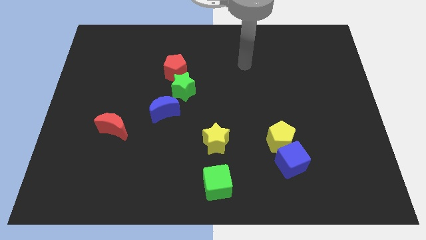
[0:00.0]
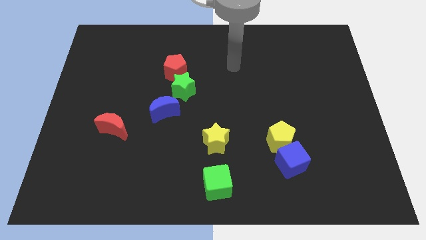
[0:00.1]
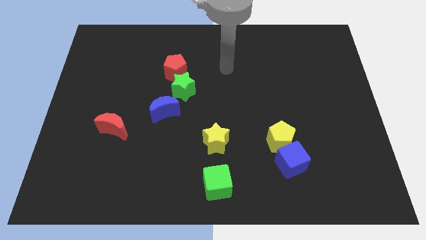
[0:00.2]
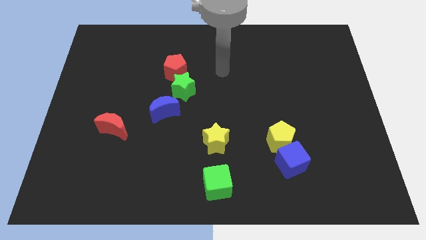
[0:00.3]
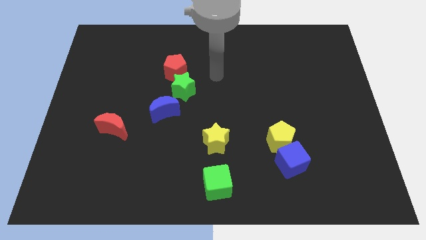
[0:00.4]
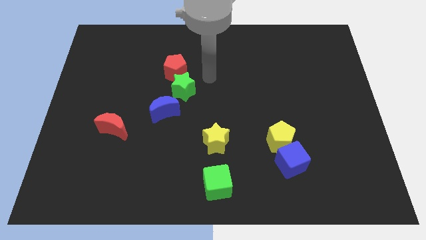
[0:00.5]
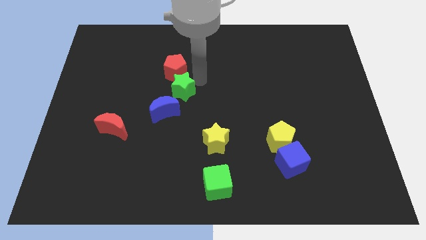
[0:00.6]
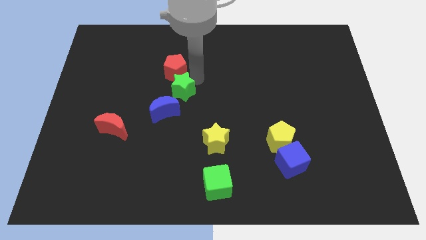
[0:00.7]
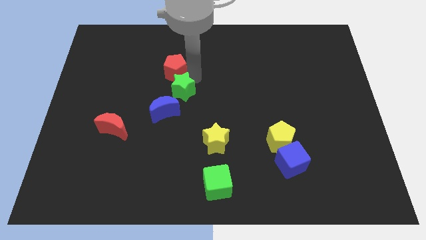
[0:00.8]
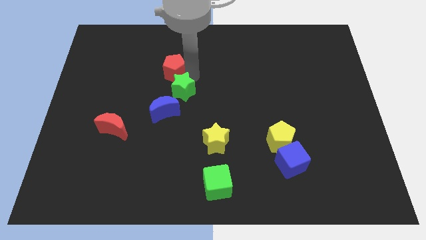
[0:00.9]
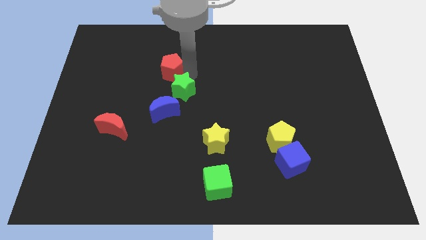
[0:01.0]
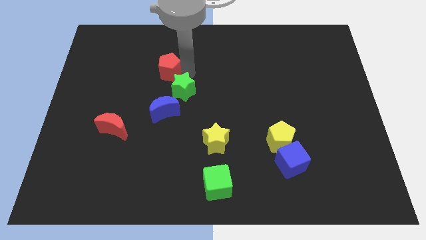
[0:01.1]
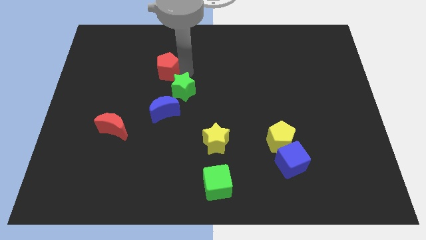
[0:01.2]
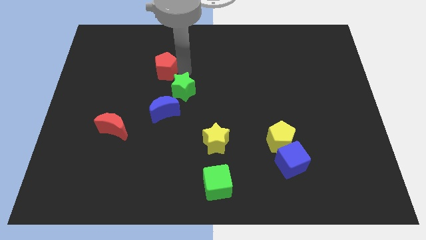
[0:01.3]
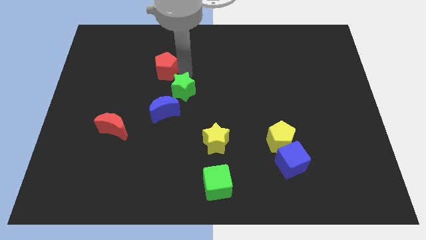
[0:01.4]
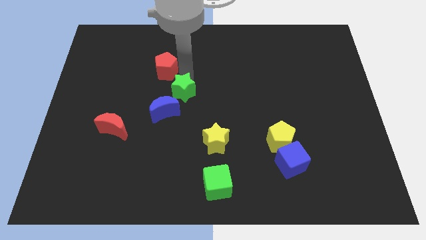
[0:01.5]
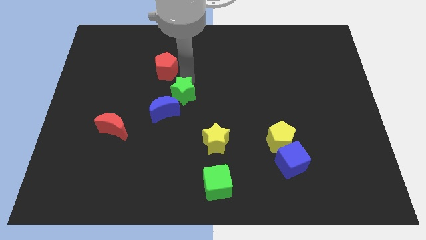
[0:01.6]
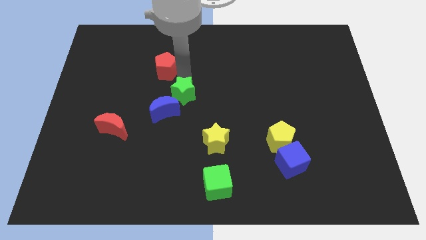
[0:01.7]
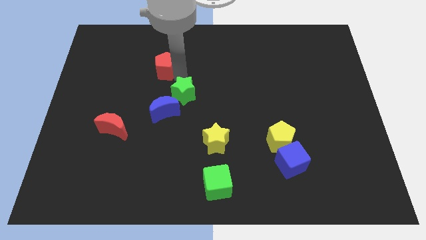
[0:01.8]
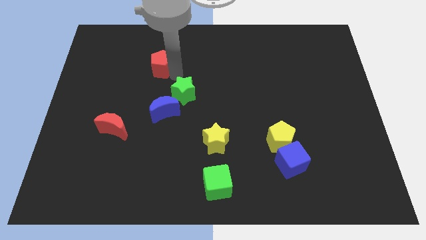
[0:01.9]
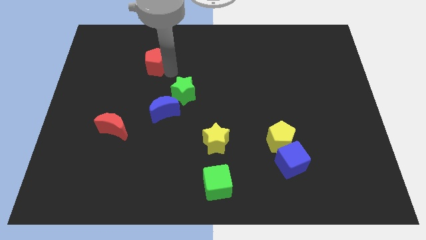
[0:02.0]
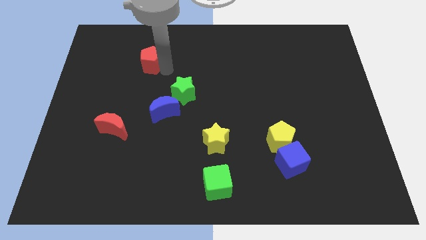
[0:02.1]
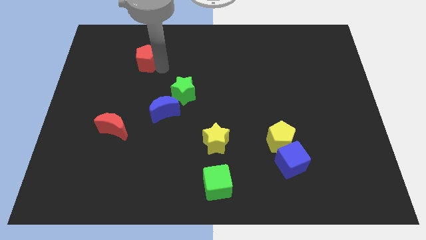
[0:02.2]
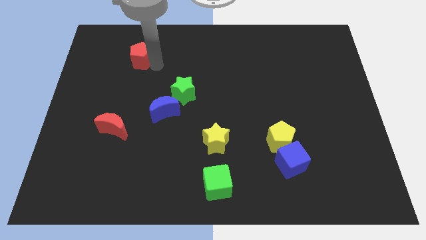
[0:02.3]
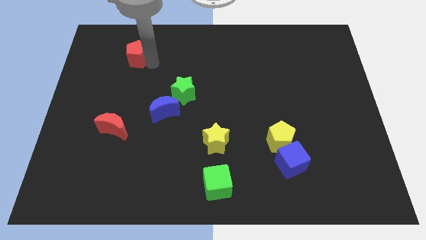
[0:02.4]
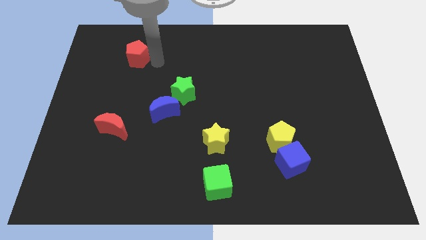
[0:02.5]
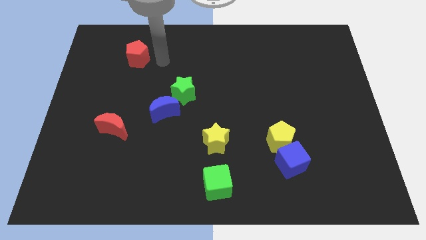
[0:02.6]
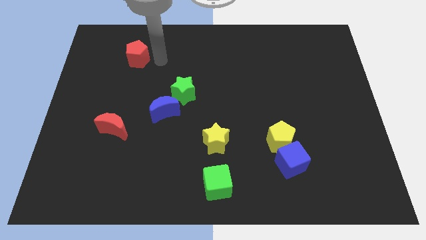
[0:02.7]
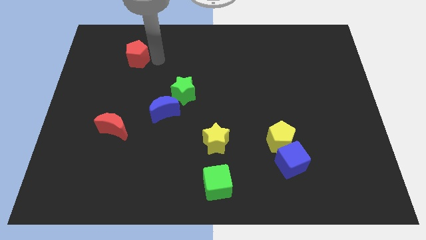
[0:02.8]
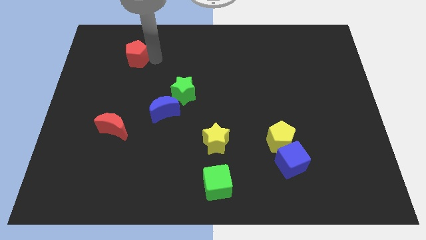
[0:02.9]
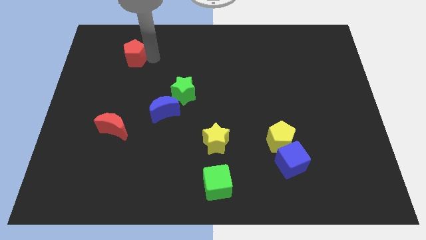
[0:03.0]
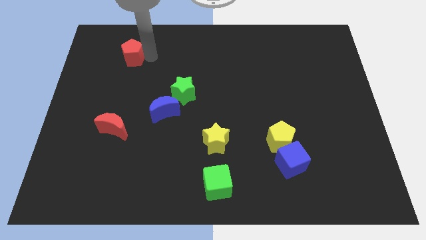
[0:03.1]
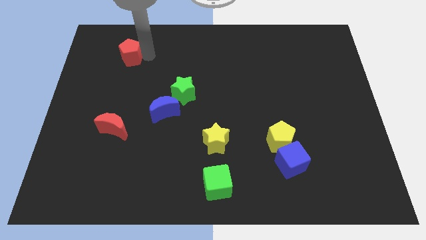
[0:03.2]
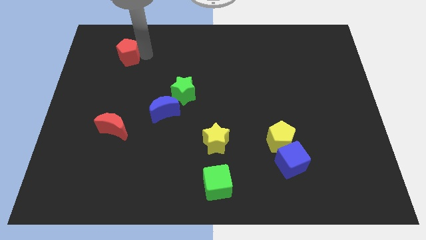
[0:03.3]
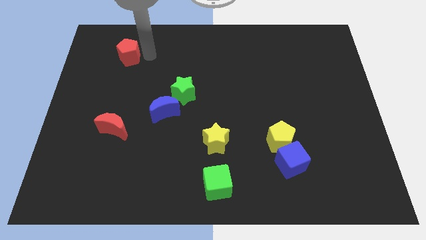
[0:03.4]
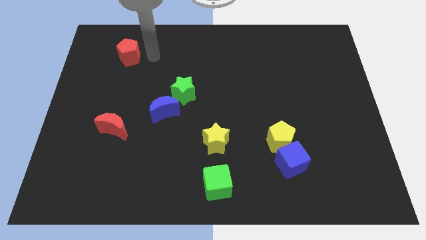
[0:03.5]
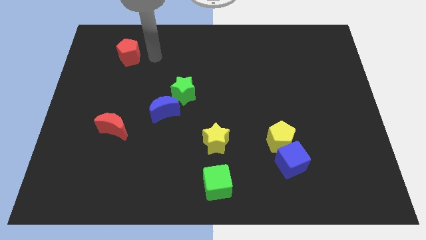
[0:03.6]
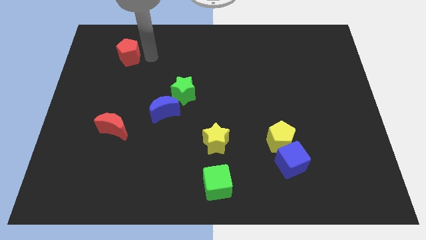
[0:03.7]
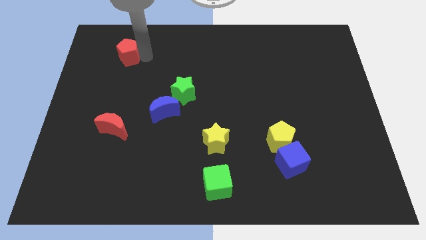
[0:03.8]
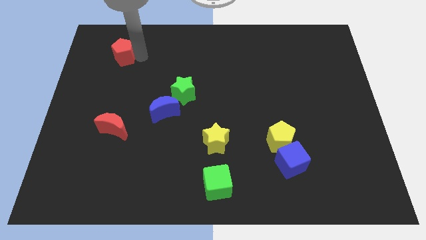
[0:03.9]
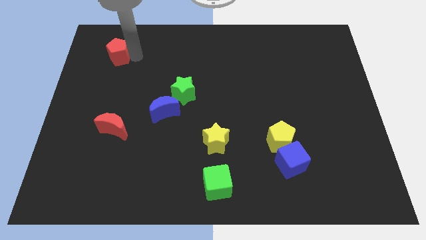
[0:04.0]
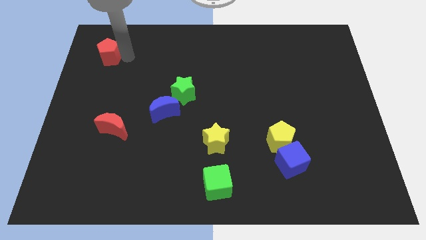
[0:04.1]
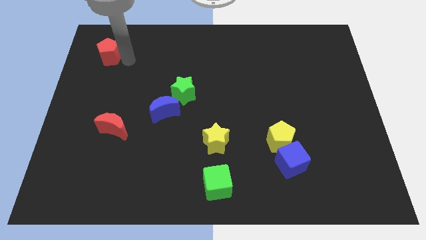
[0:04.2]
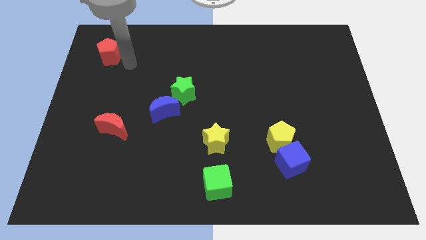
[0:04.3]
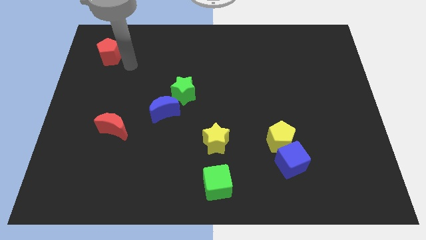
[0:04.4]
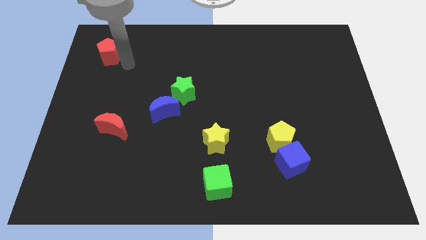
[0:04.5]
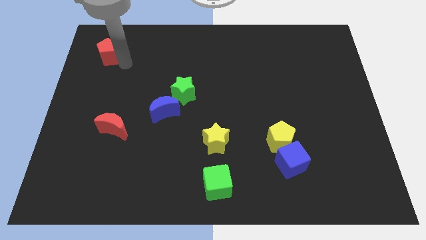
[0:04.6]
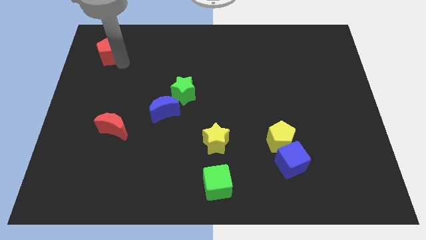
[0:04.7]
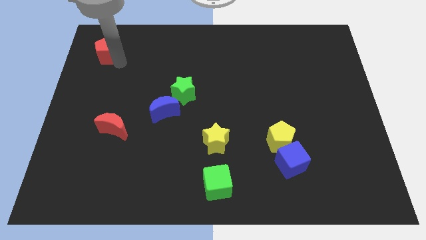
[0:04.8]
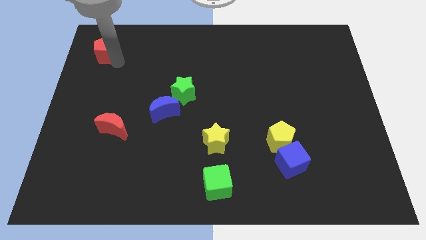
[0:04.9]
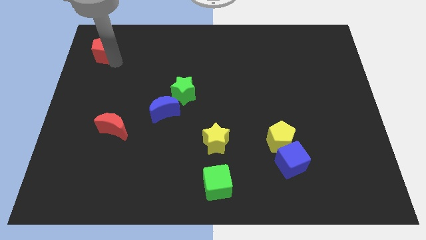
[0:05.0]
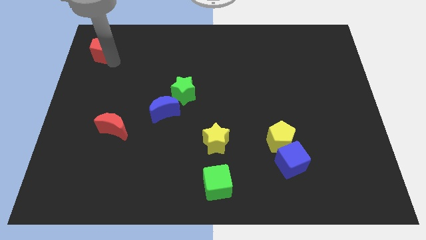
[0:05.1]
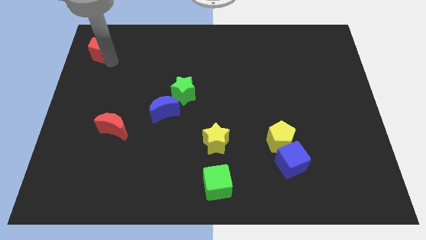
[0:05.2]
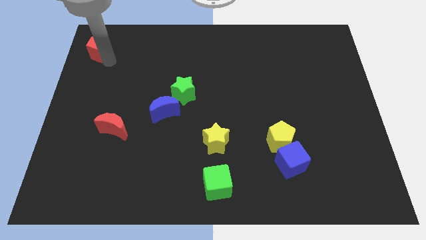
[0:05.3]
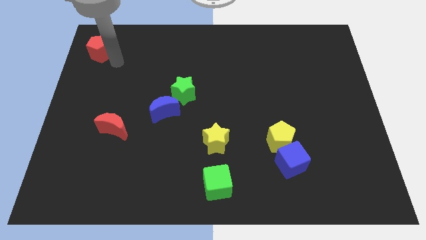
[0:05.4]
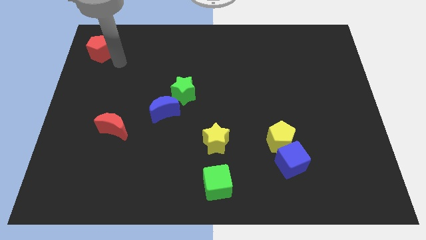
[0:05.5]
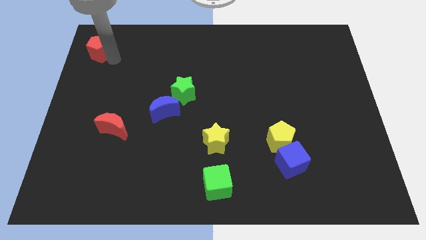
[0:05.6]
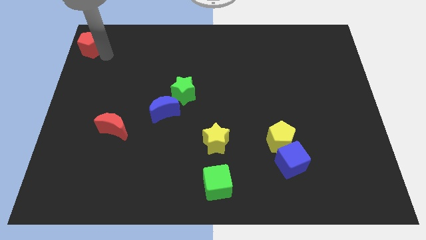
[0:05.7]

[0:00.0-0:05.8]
move the red pentagon to the top left corner

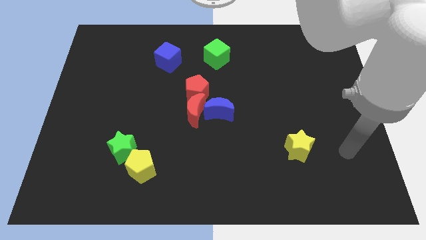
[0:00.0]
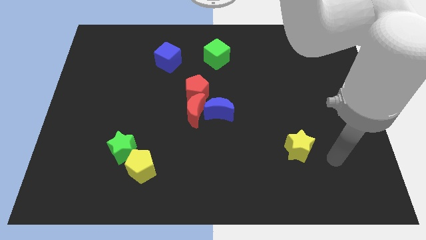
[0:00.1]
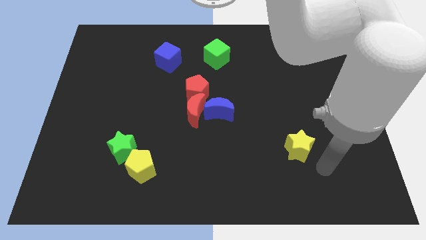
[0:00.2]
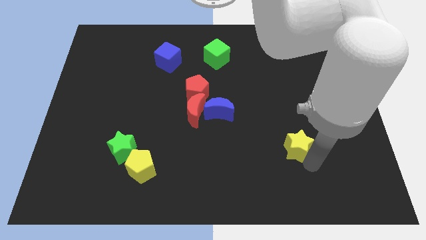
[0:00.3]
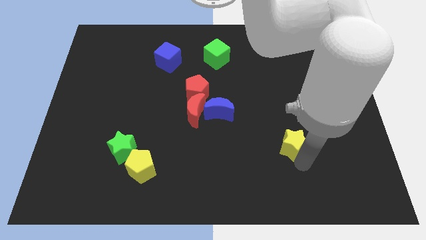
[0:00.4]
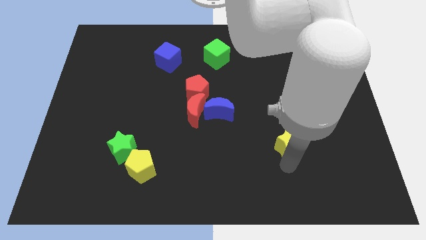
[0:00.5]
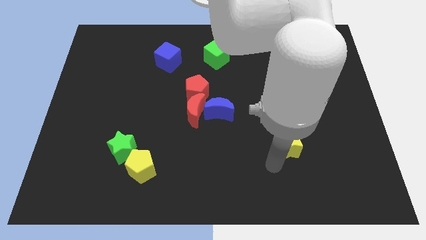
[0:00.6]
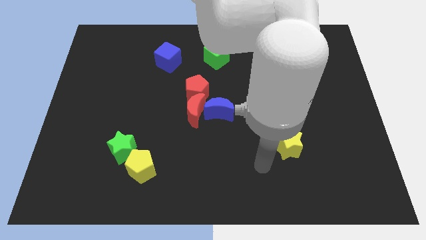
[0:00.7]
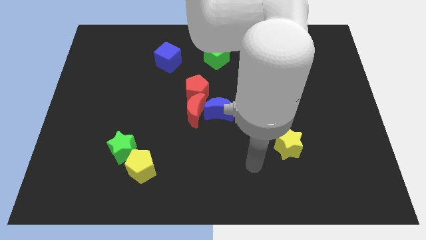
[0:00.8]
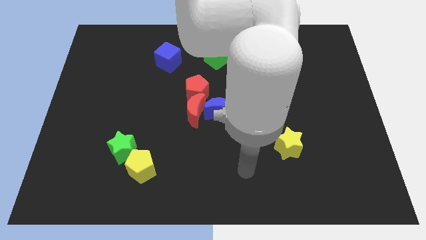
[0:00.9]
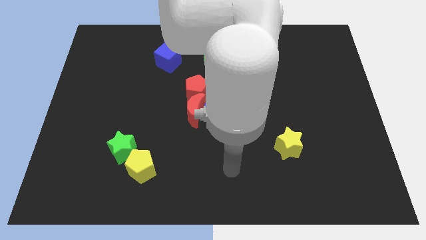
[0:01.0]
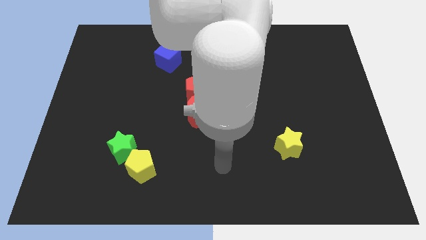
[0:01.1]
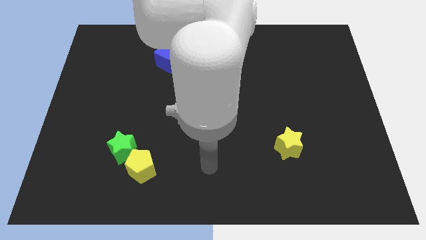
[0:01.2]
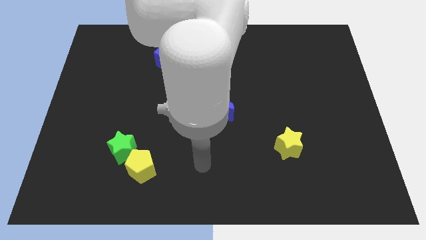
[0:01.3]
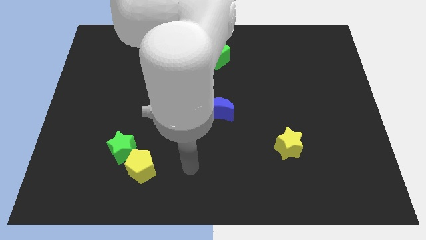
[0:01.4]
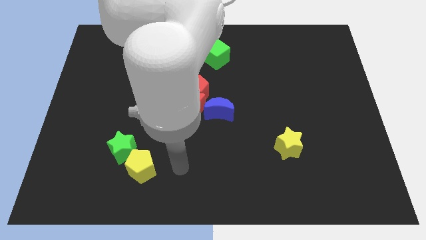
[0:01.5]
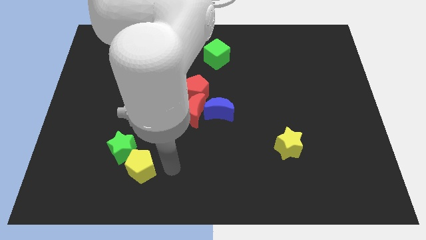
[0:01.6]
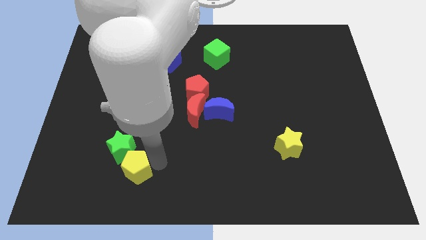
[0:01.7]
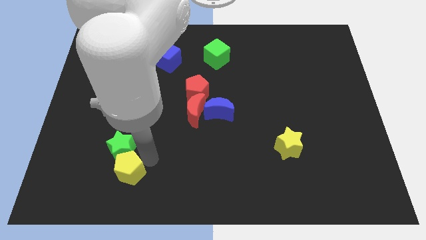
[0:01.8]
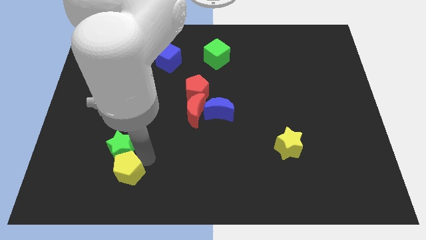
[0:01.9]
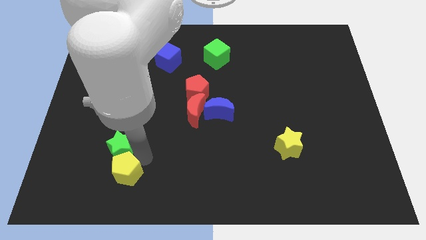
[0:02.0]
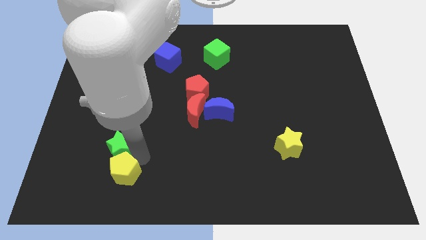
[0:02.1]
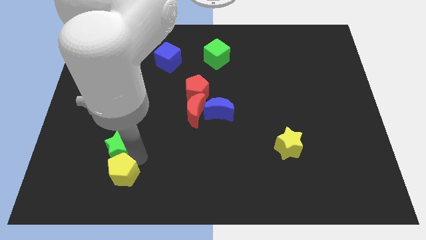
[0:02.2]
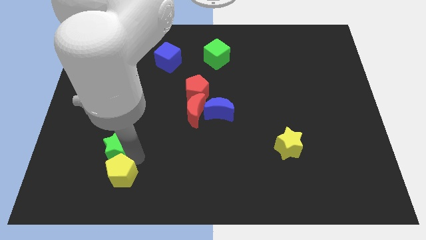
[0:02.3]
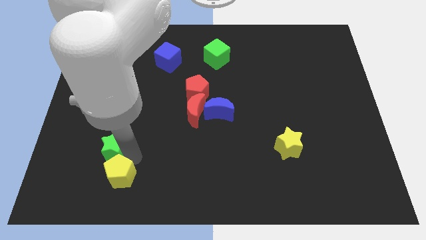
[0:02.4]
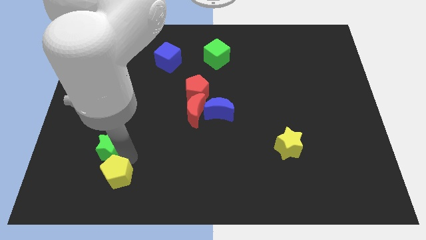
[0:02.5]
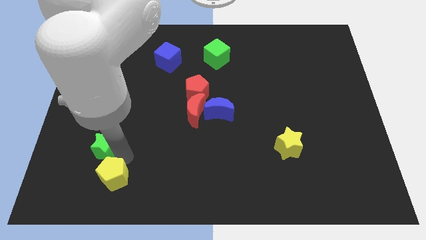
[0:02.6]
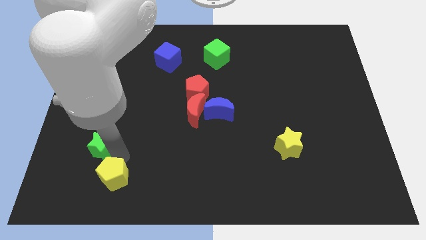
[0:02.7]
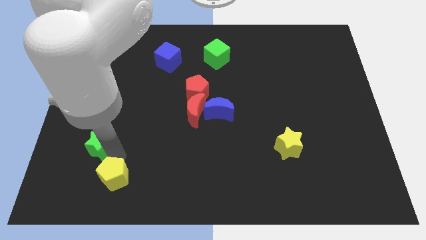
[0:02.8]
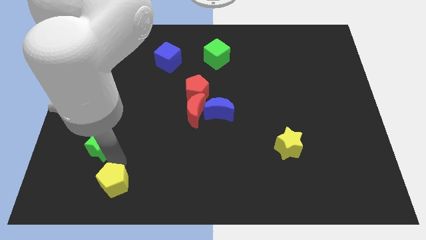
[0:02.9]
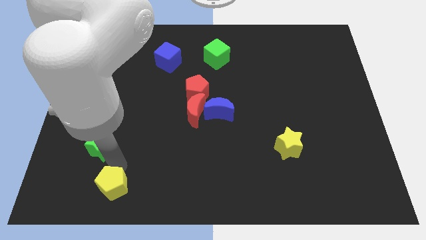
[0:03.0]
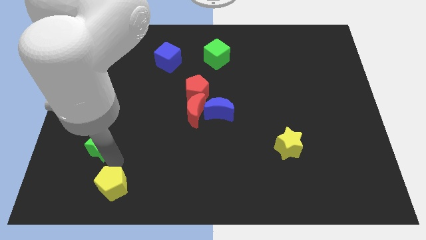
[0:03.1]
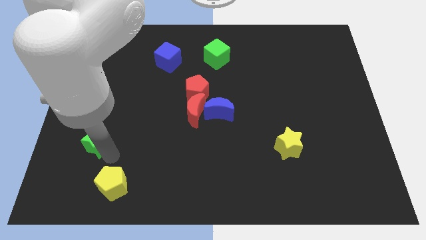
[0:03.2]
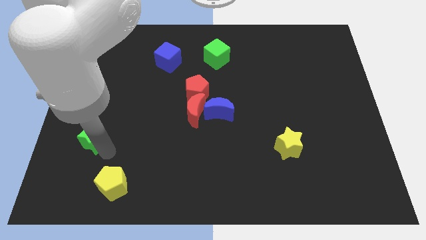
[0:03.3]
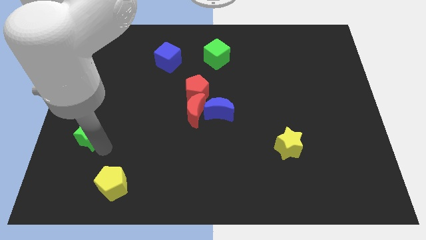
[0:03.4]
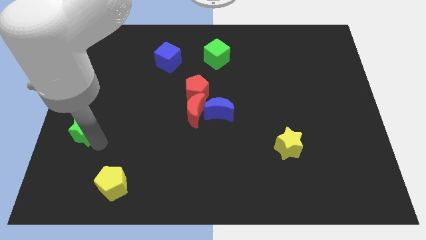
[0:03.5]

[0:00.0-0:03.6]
move the green star to the left side
